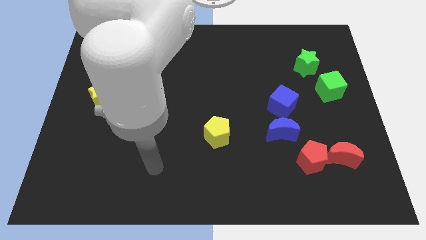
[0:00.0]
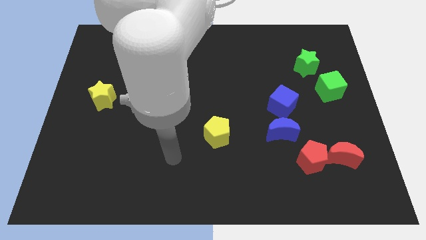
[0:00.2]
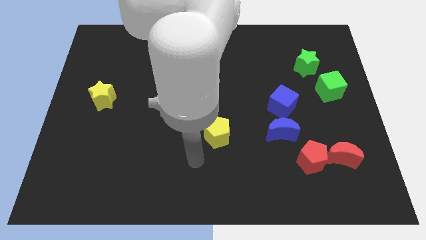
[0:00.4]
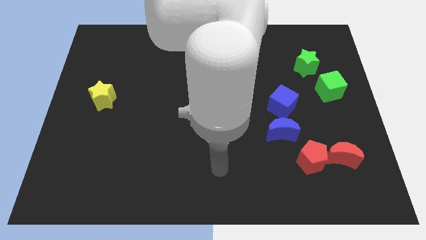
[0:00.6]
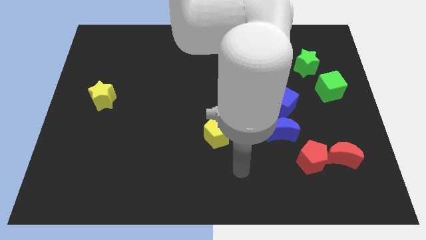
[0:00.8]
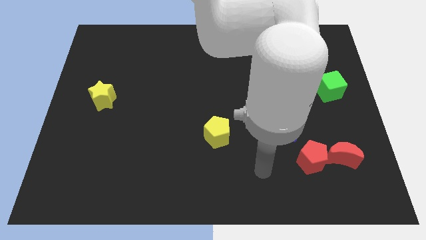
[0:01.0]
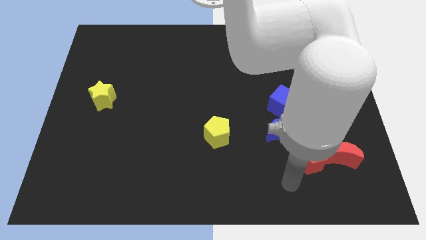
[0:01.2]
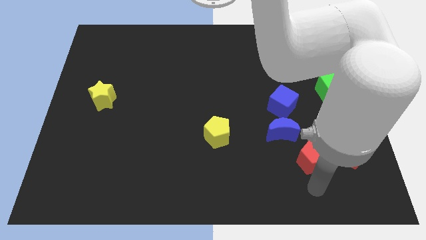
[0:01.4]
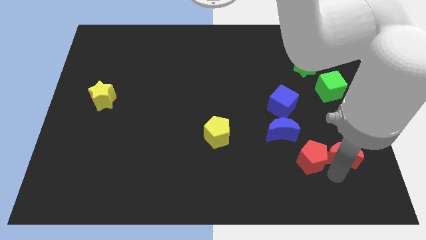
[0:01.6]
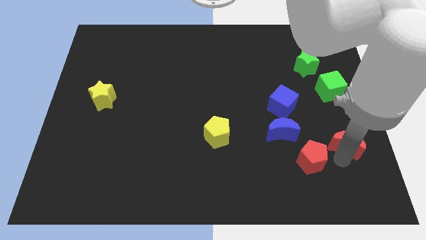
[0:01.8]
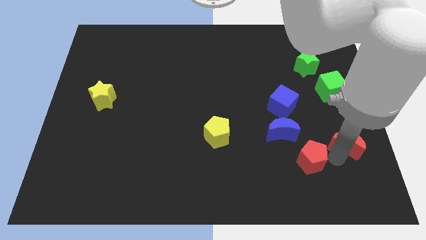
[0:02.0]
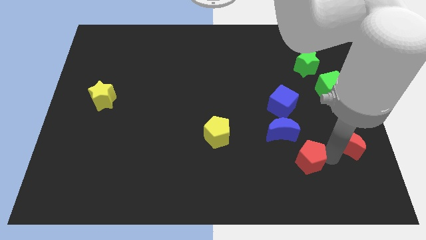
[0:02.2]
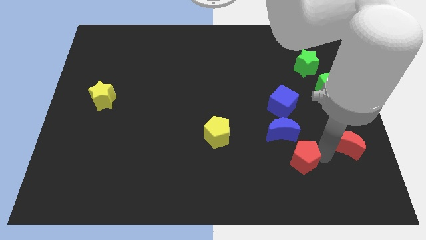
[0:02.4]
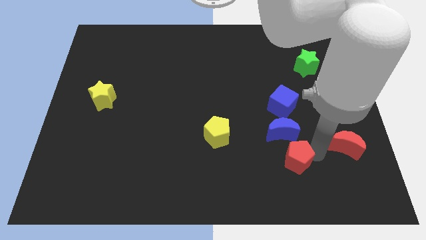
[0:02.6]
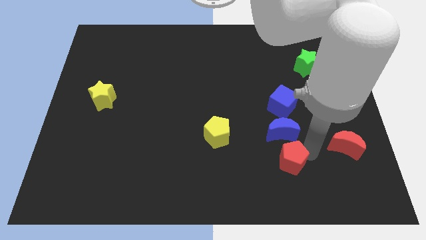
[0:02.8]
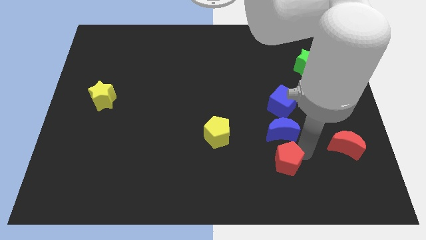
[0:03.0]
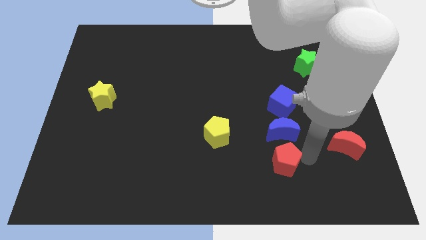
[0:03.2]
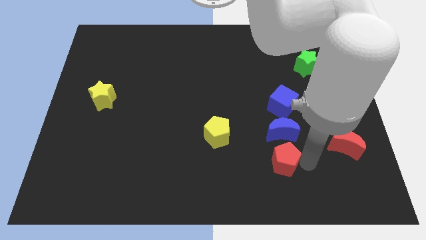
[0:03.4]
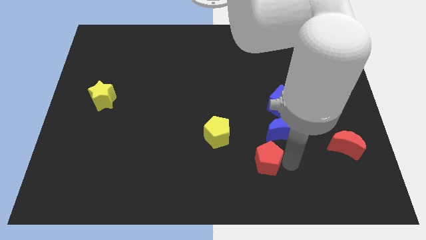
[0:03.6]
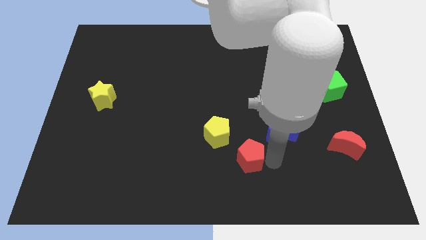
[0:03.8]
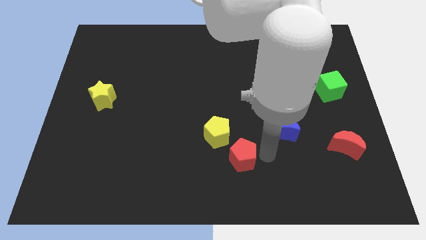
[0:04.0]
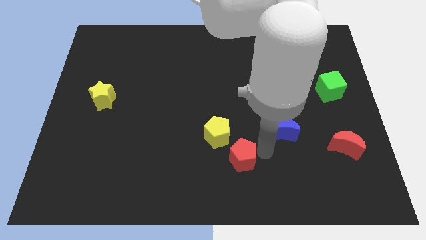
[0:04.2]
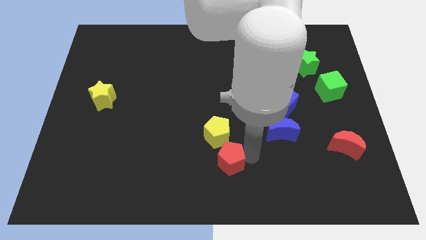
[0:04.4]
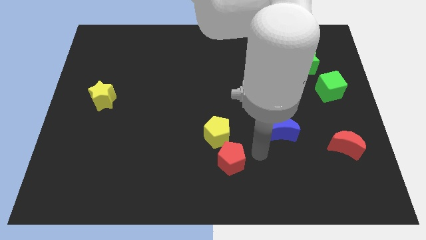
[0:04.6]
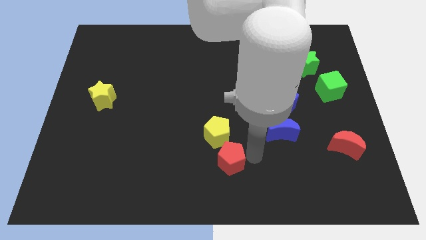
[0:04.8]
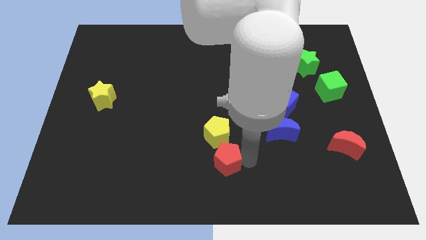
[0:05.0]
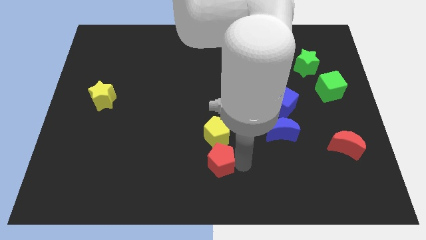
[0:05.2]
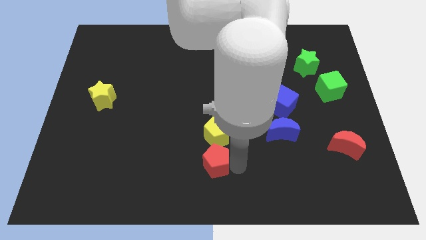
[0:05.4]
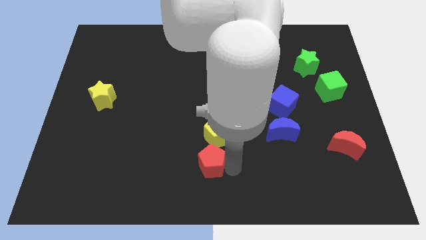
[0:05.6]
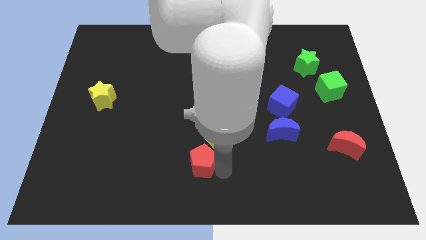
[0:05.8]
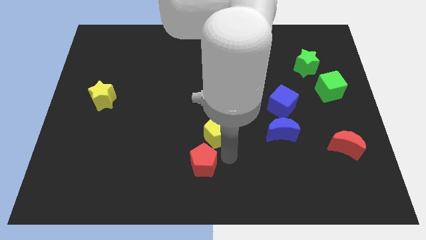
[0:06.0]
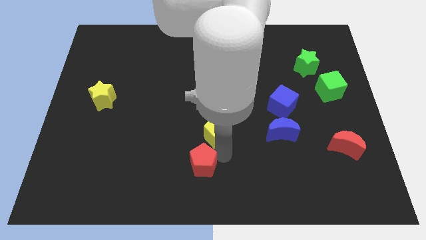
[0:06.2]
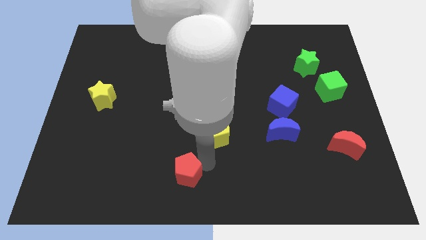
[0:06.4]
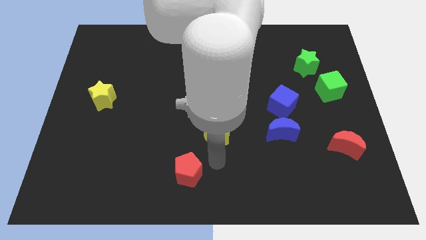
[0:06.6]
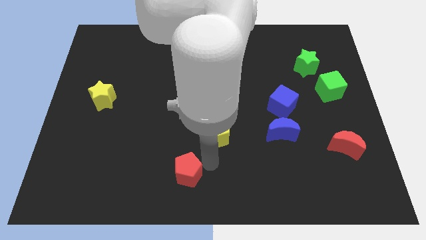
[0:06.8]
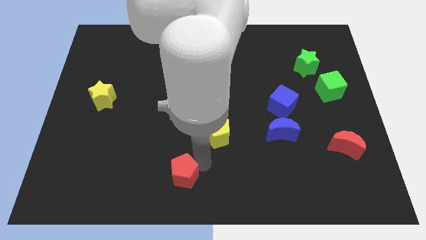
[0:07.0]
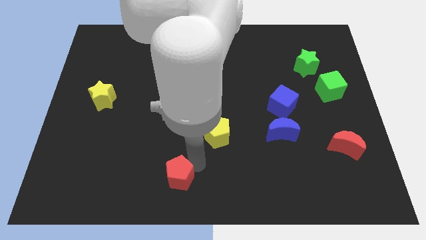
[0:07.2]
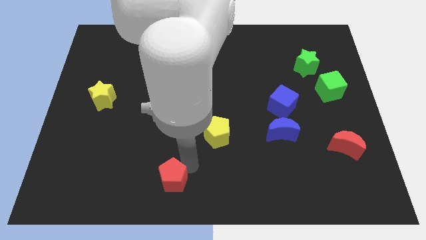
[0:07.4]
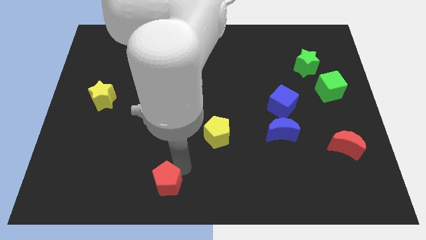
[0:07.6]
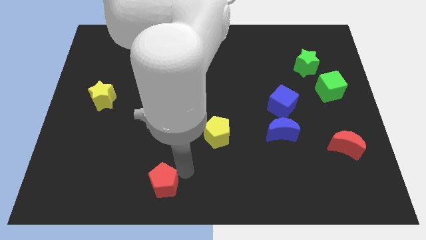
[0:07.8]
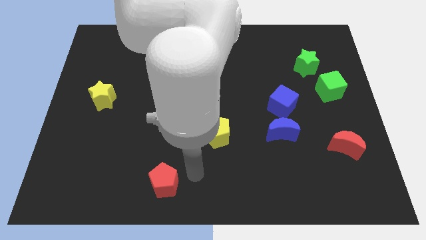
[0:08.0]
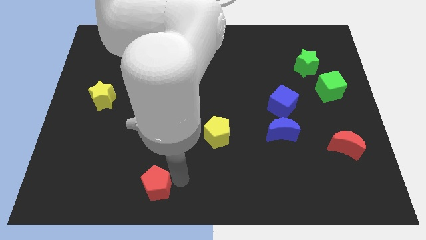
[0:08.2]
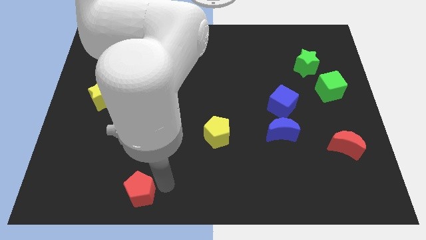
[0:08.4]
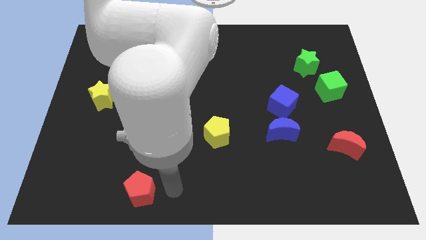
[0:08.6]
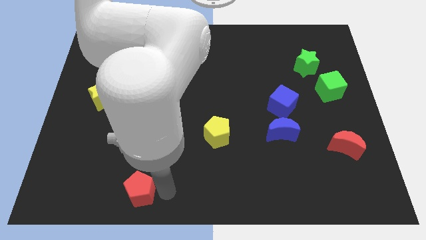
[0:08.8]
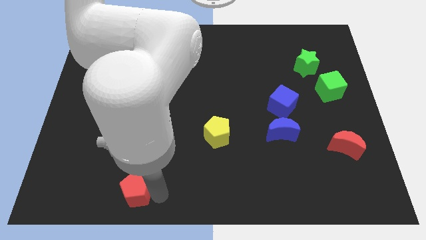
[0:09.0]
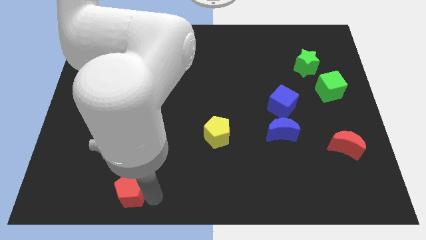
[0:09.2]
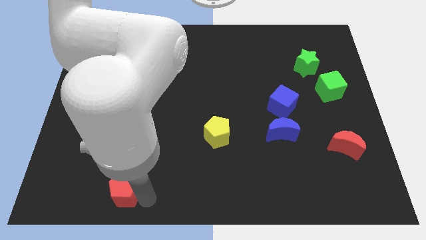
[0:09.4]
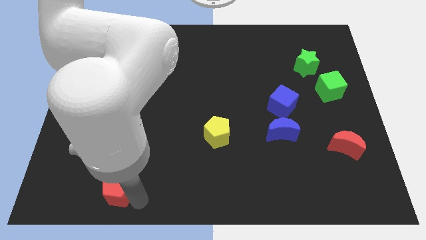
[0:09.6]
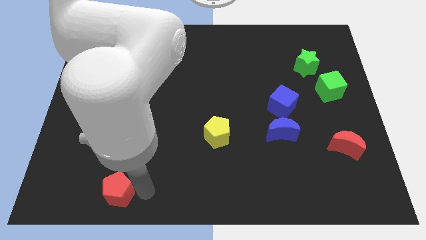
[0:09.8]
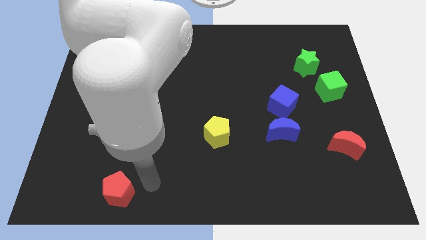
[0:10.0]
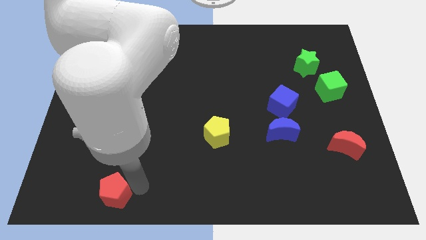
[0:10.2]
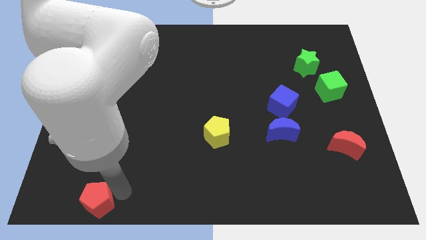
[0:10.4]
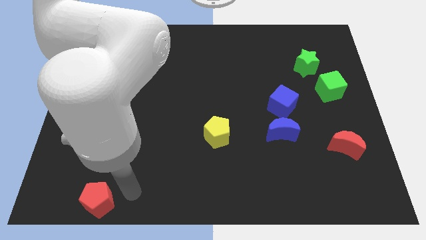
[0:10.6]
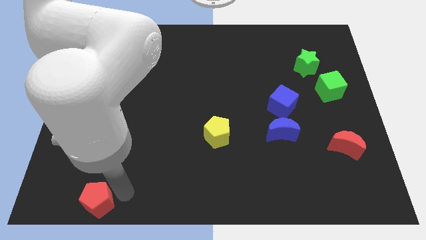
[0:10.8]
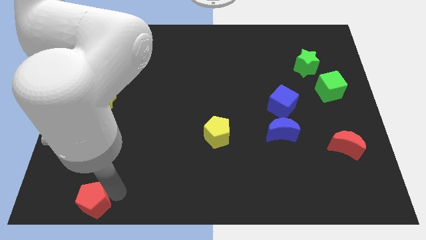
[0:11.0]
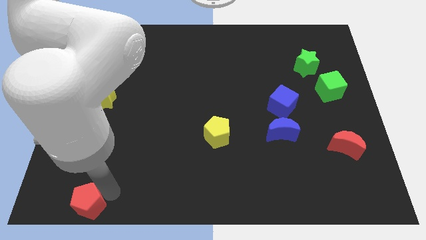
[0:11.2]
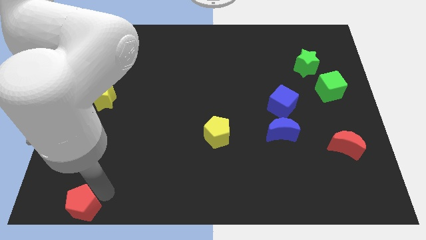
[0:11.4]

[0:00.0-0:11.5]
slide the red pentagon to the bottom left

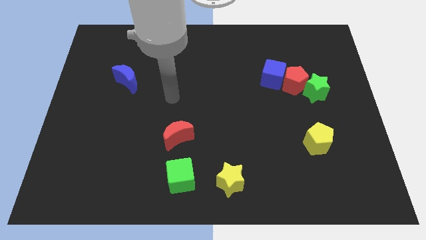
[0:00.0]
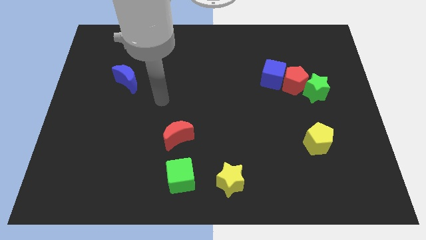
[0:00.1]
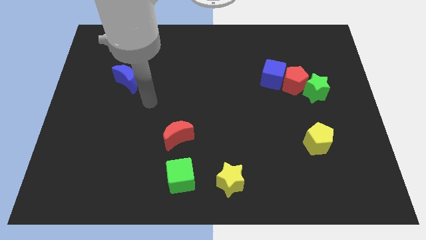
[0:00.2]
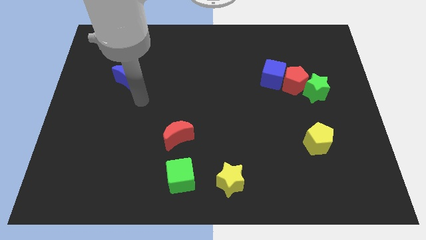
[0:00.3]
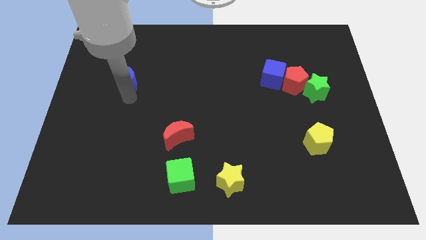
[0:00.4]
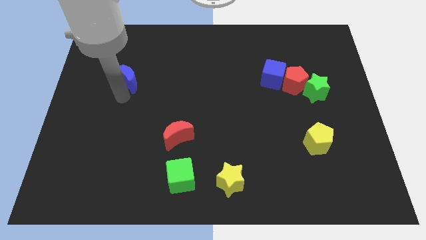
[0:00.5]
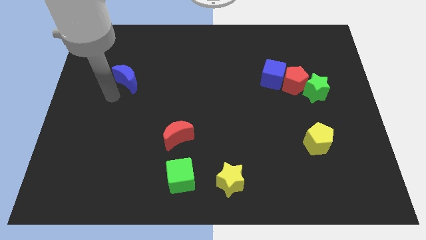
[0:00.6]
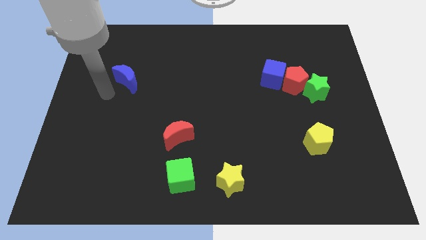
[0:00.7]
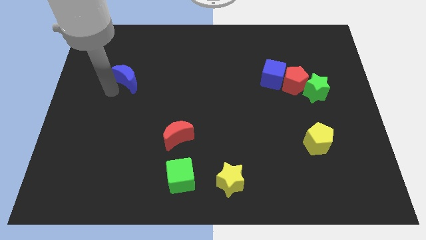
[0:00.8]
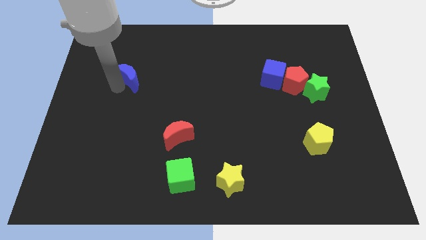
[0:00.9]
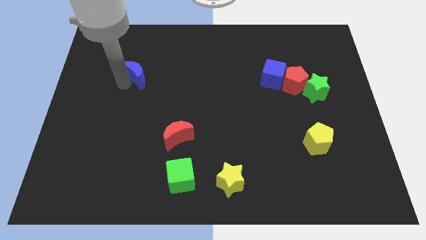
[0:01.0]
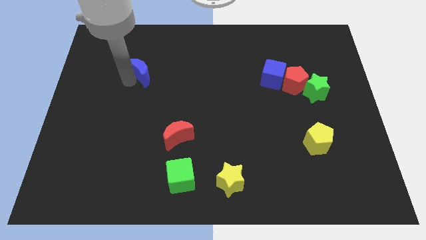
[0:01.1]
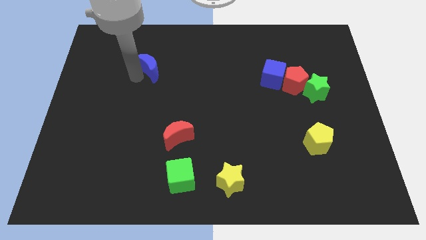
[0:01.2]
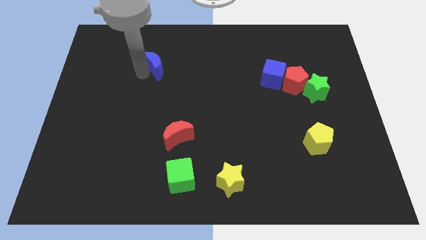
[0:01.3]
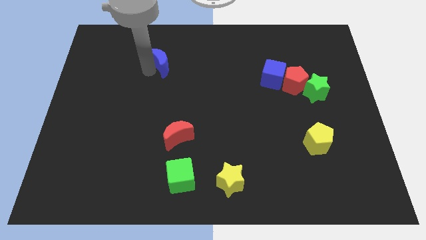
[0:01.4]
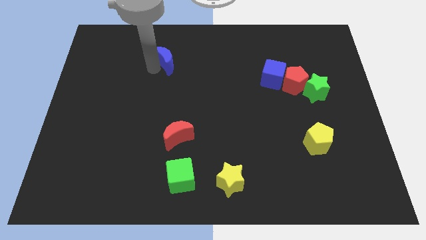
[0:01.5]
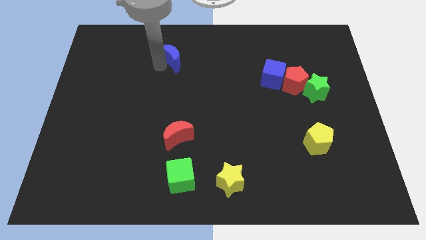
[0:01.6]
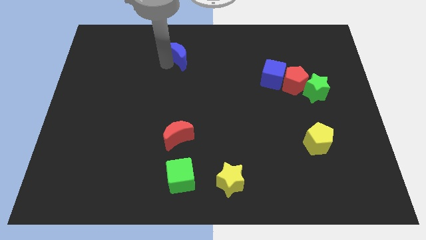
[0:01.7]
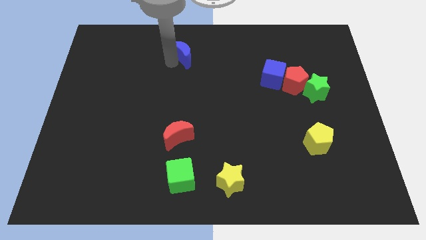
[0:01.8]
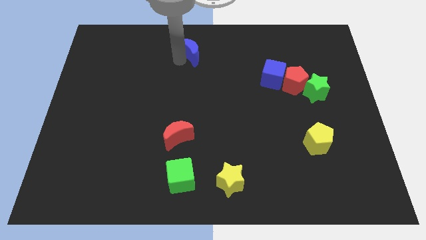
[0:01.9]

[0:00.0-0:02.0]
slide the blue moon to the towards your base
